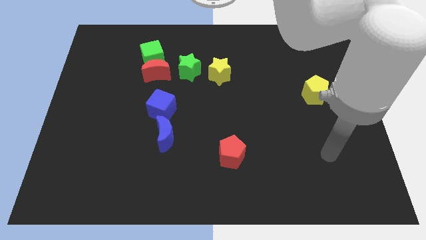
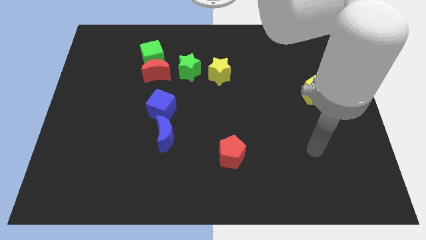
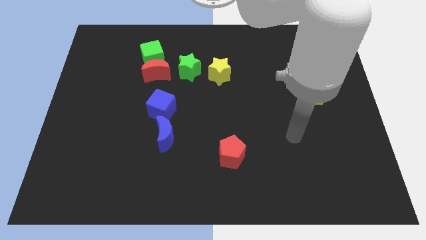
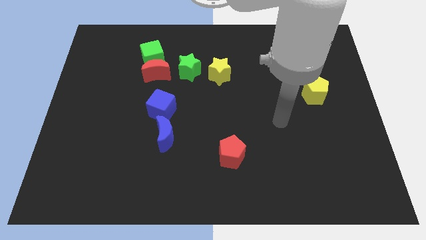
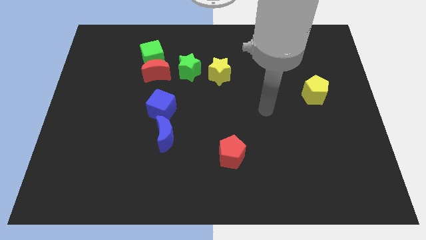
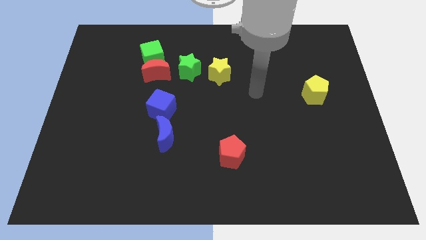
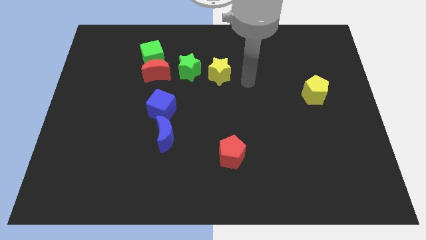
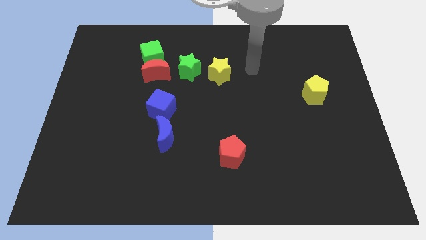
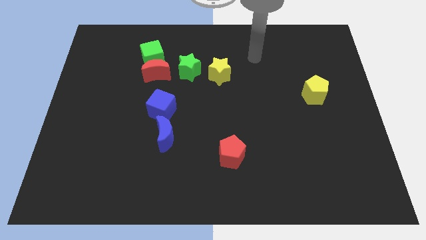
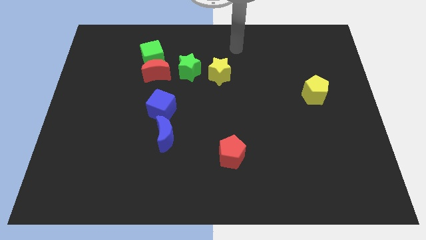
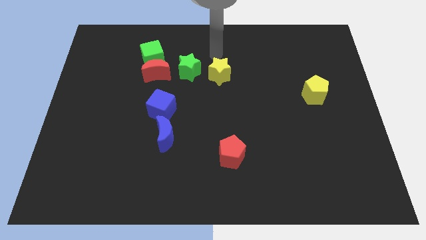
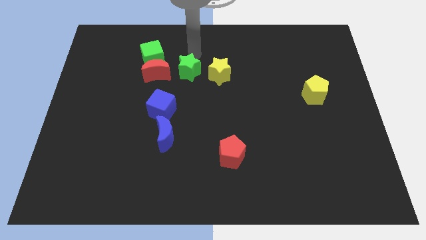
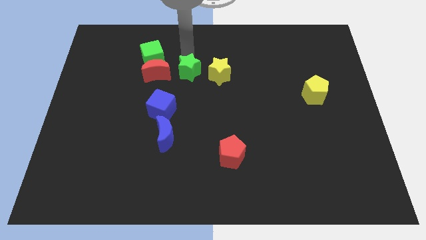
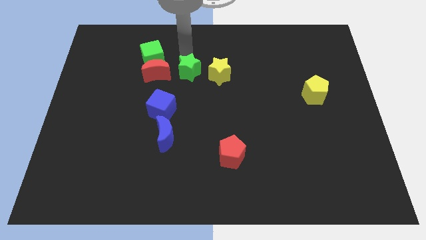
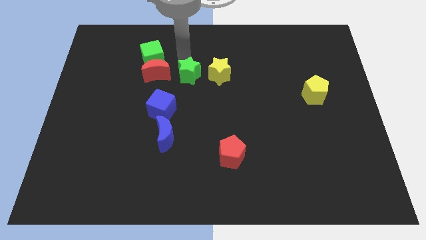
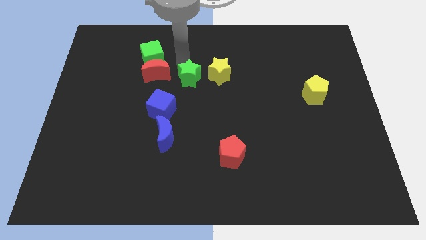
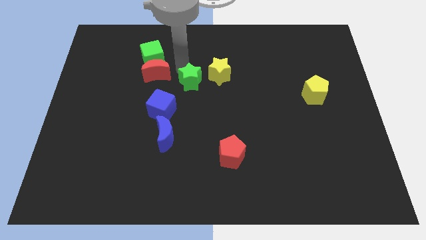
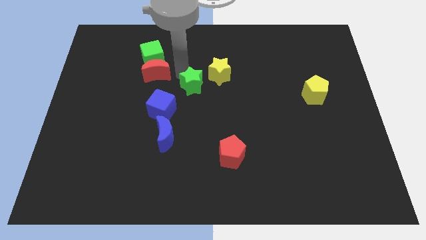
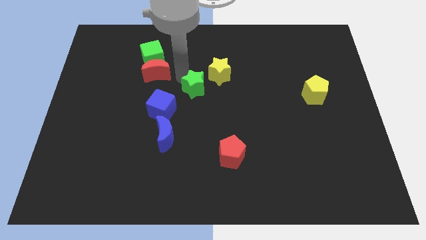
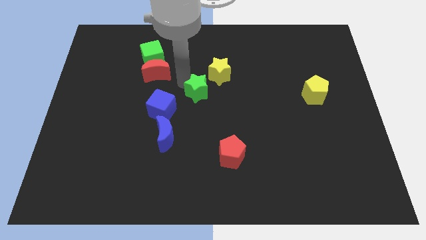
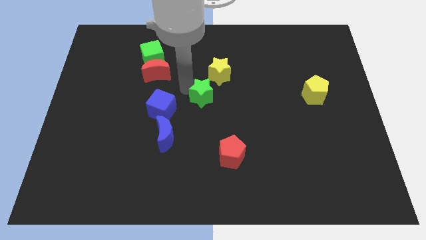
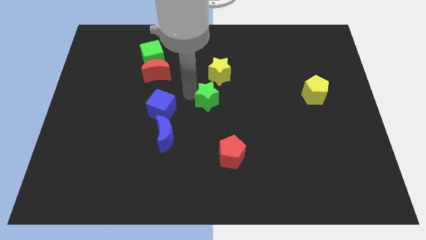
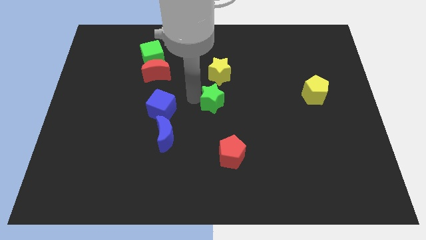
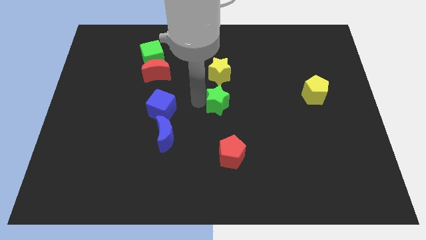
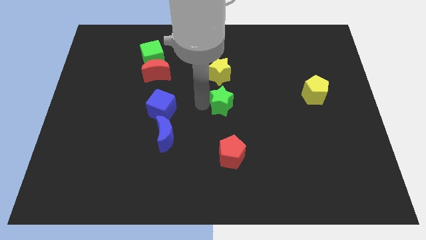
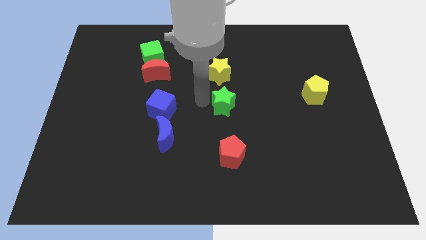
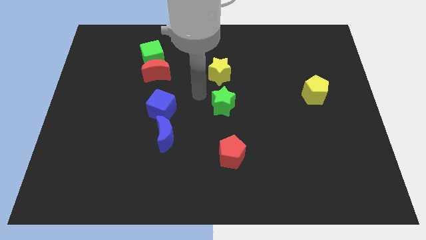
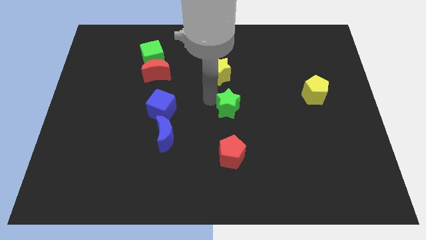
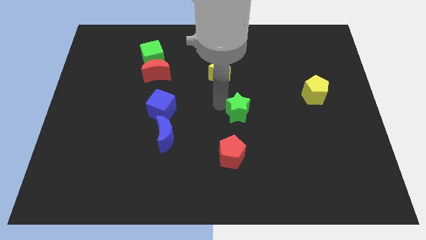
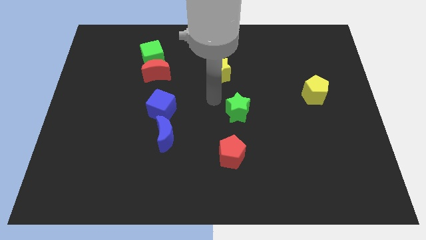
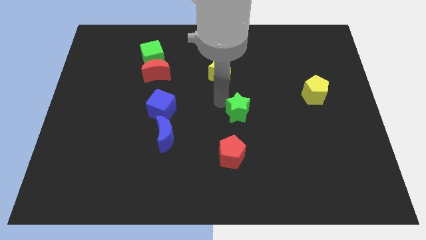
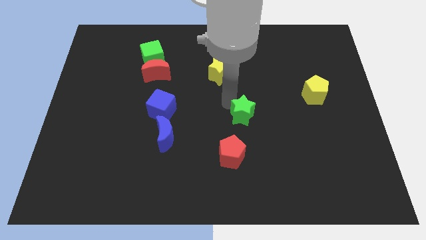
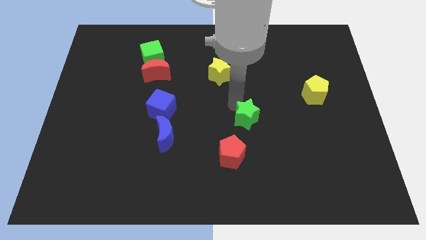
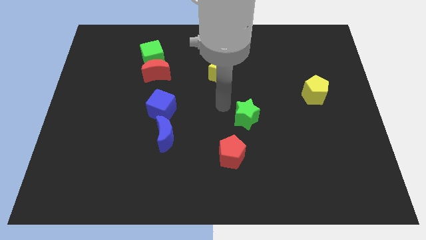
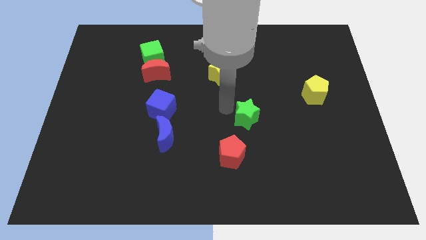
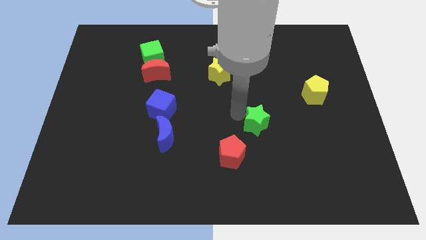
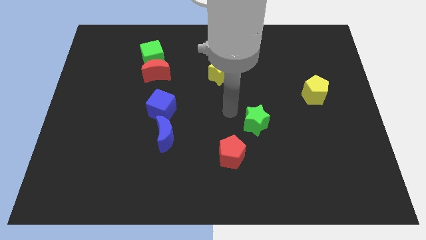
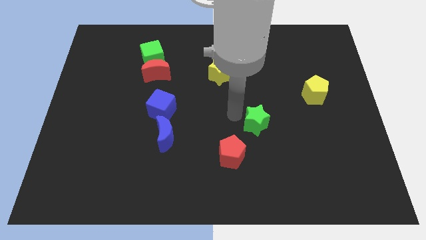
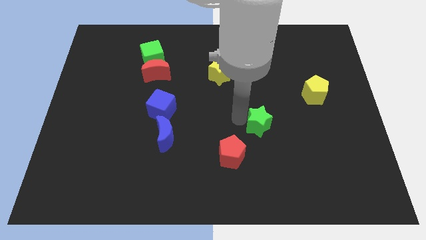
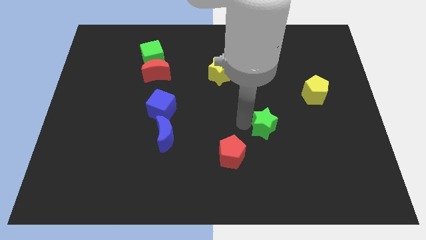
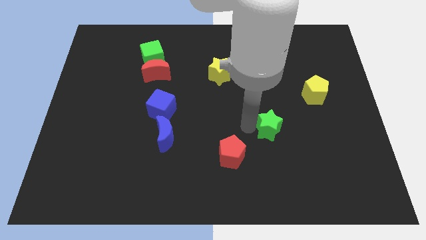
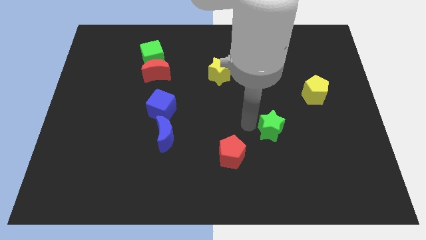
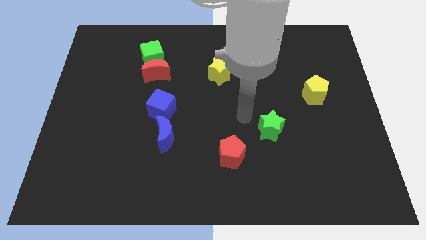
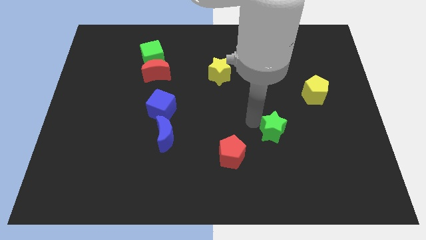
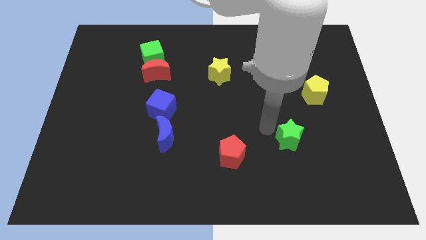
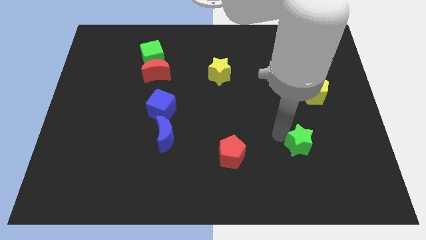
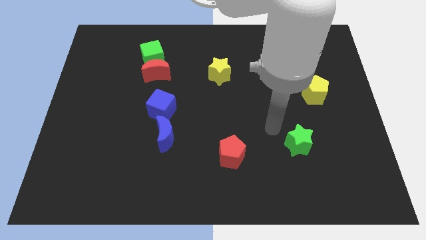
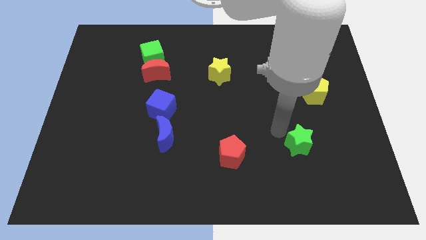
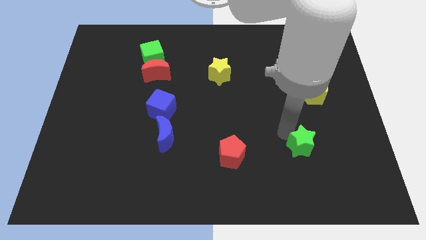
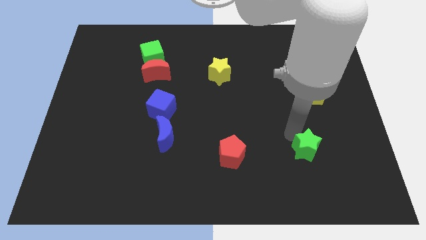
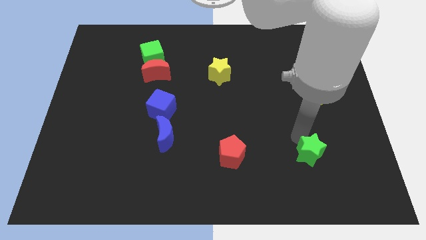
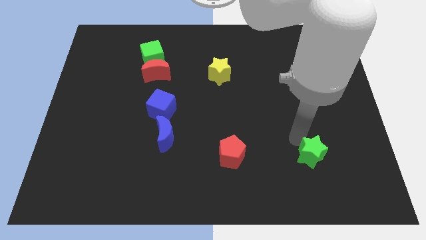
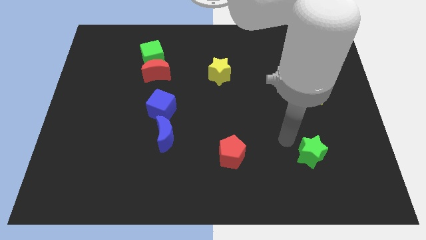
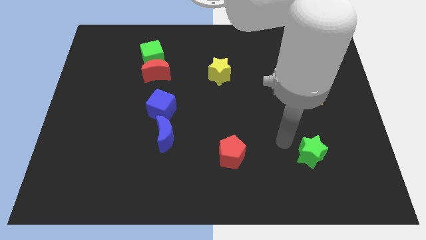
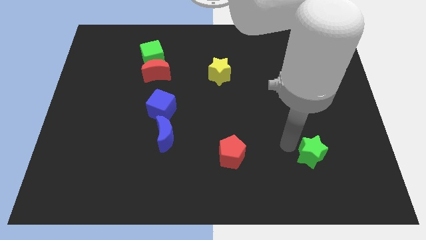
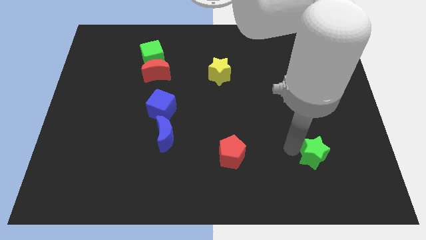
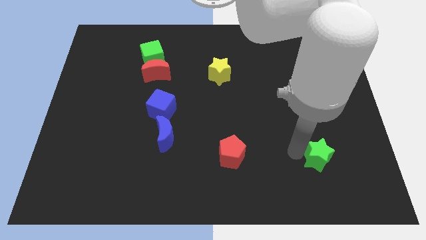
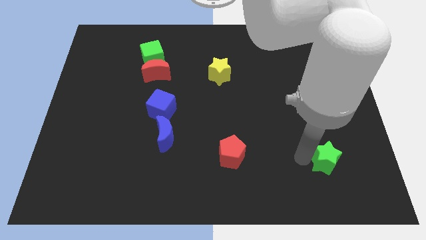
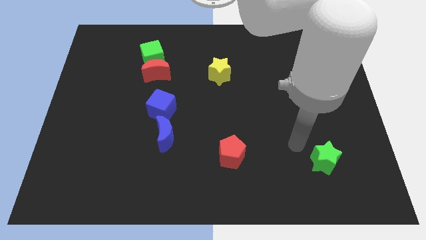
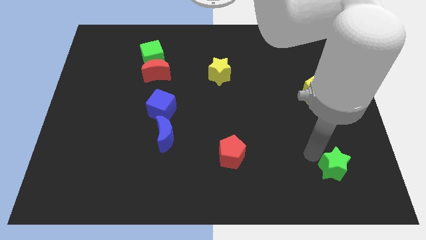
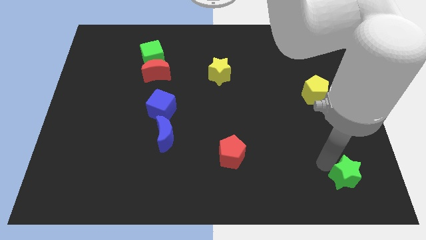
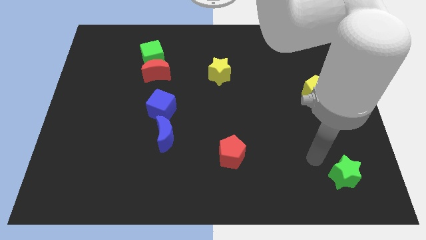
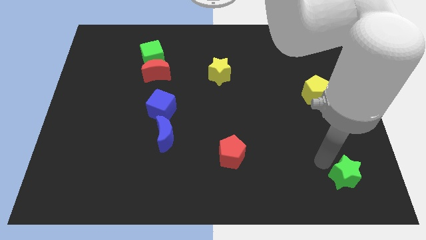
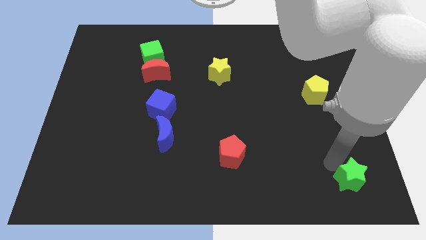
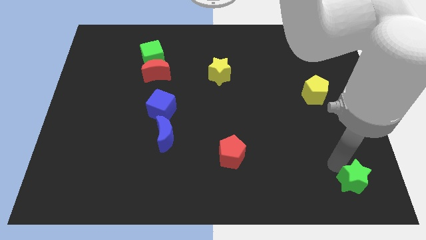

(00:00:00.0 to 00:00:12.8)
push the green star to the bottom right of the board
